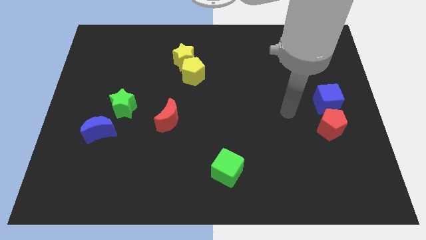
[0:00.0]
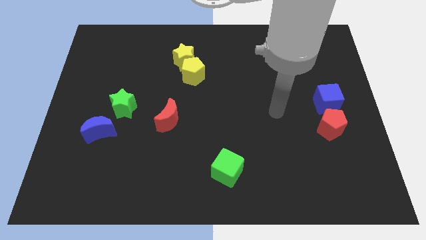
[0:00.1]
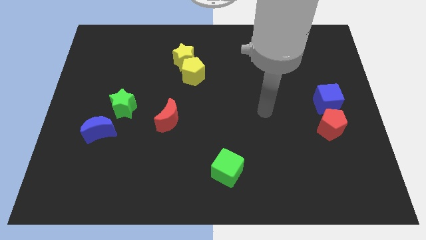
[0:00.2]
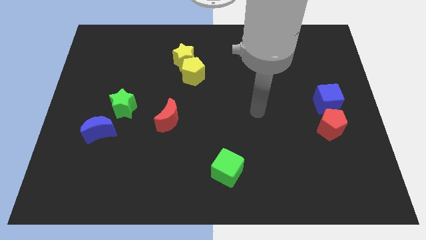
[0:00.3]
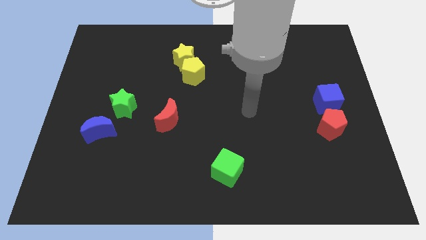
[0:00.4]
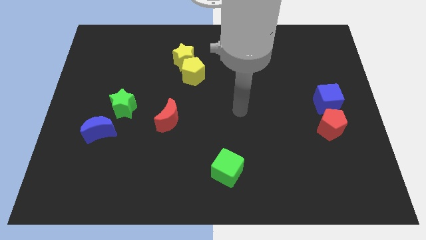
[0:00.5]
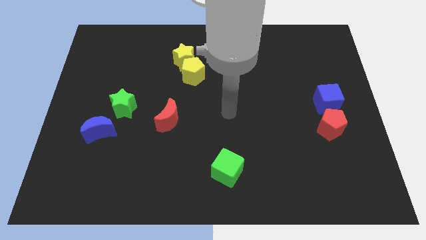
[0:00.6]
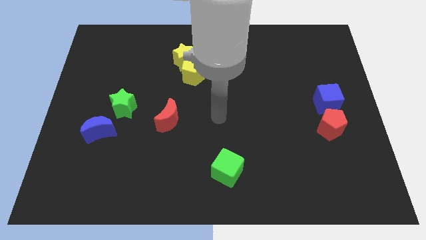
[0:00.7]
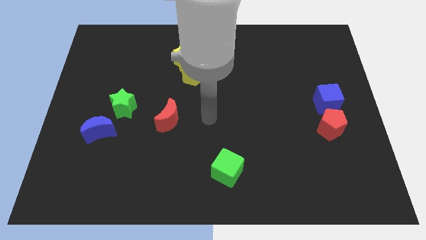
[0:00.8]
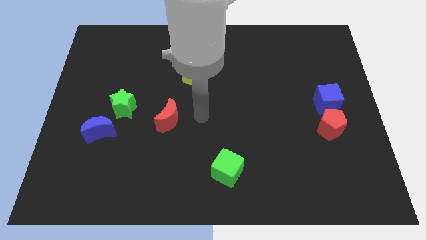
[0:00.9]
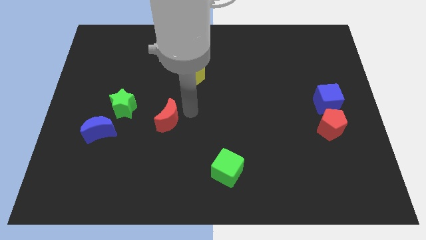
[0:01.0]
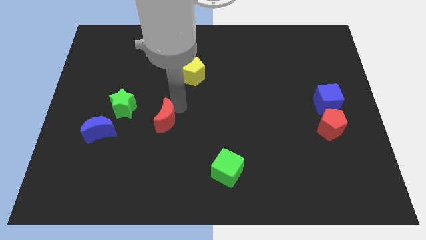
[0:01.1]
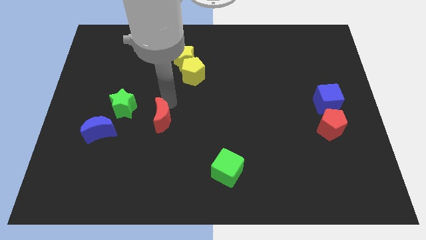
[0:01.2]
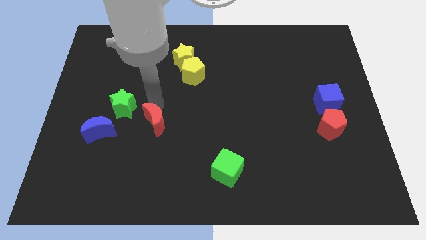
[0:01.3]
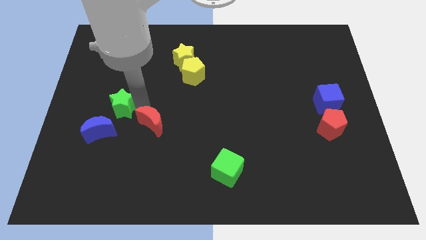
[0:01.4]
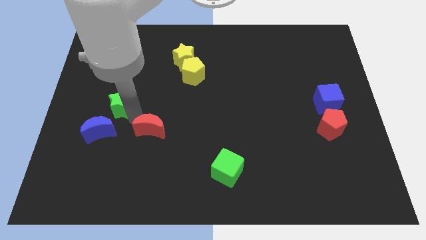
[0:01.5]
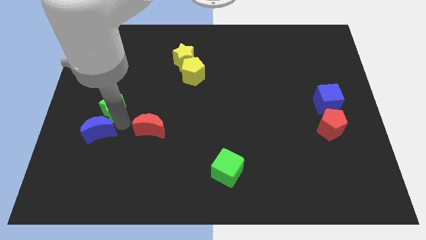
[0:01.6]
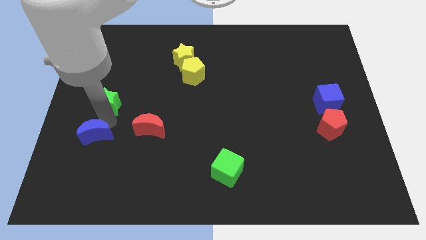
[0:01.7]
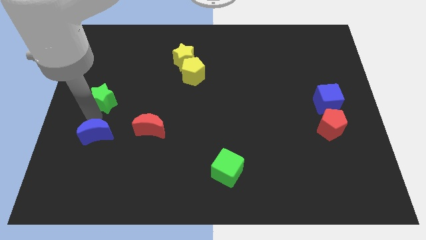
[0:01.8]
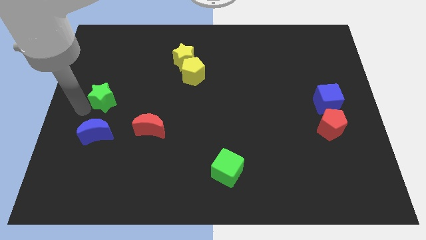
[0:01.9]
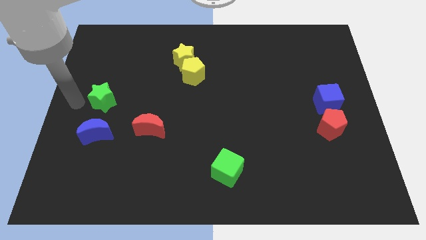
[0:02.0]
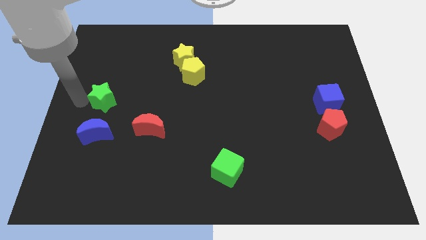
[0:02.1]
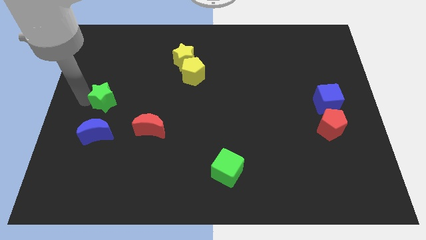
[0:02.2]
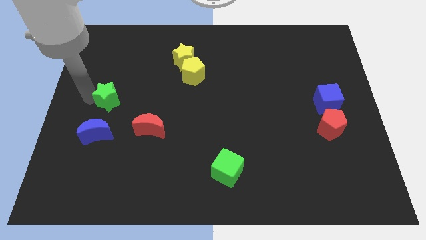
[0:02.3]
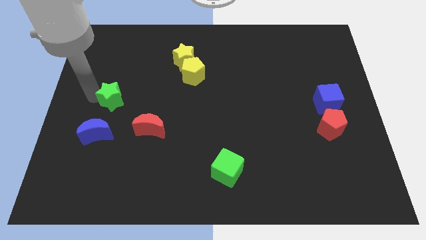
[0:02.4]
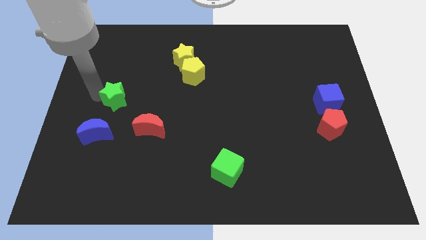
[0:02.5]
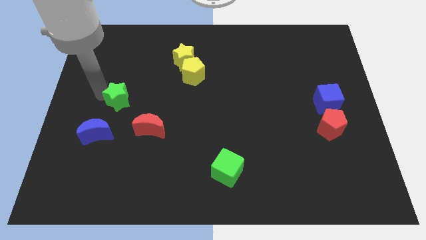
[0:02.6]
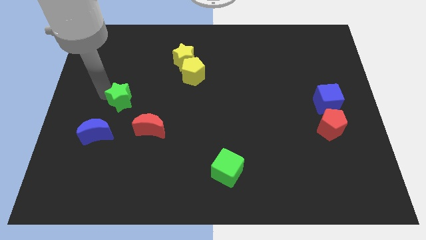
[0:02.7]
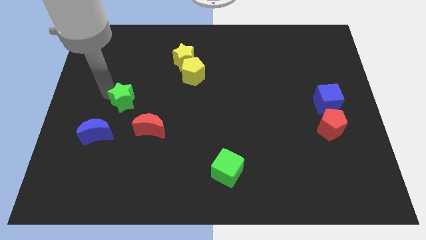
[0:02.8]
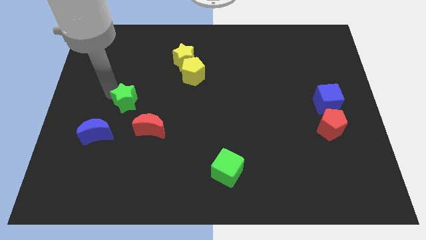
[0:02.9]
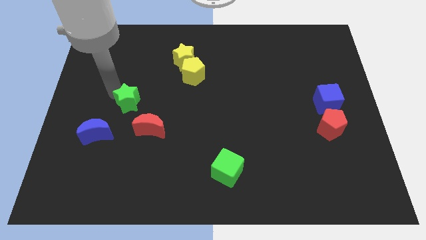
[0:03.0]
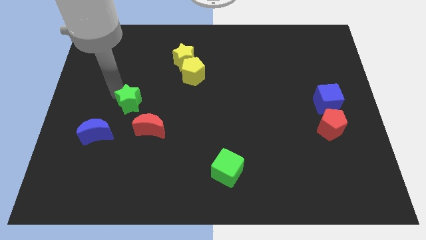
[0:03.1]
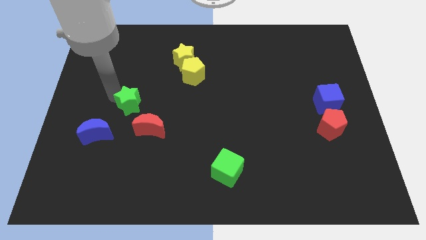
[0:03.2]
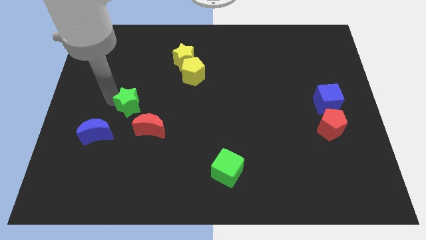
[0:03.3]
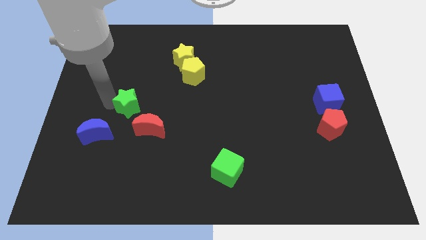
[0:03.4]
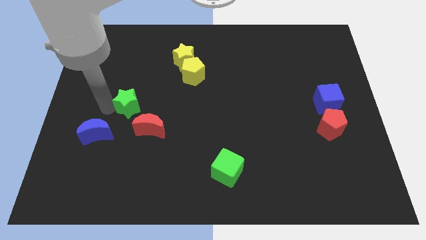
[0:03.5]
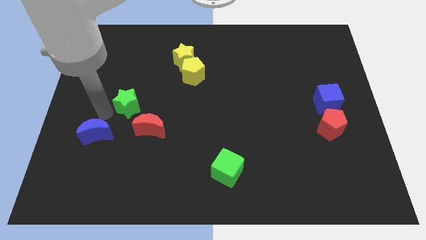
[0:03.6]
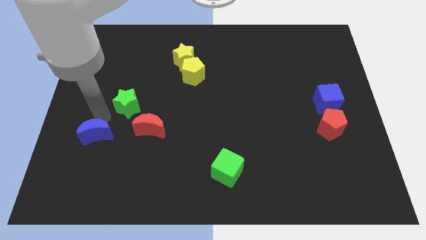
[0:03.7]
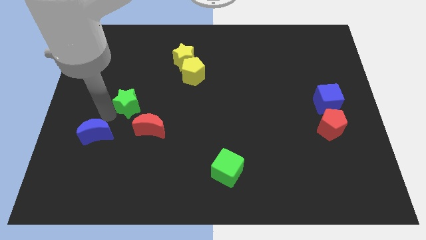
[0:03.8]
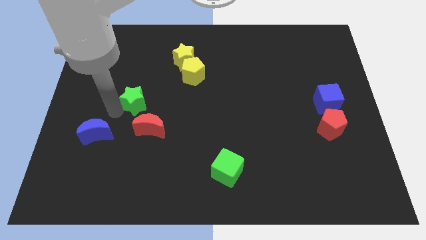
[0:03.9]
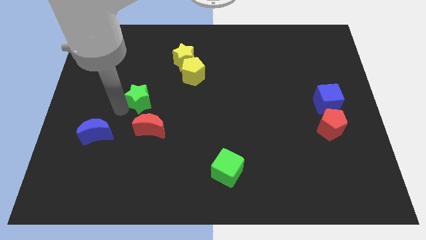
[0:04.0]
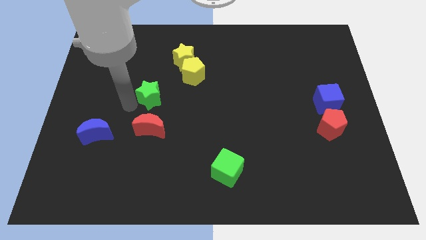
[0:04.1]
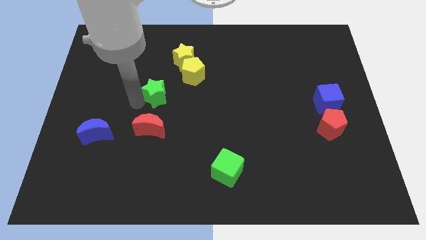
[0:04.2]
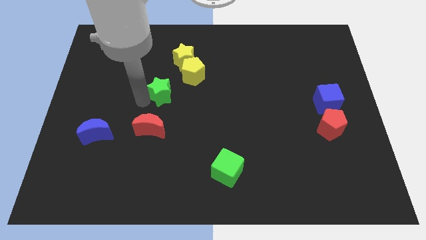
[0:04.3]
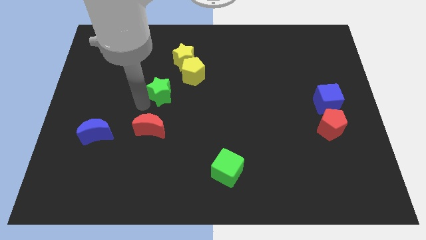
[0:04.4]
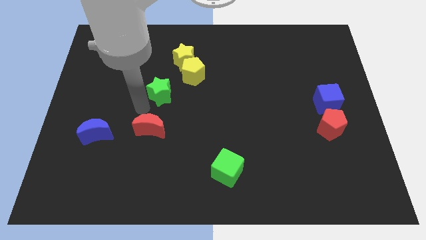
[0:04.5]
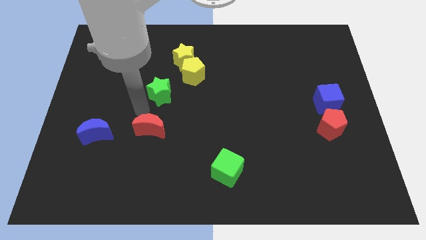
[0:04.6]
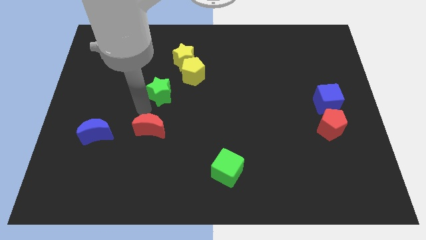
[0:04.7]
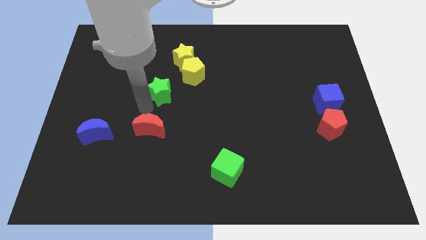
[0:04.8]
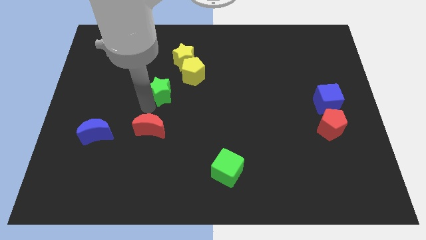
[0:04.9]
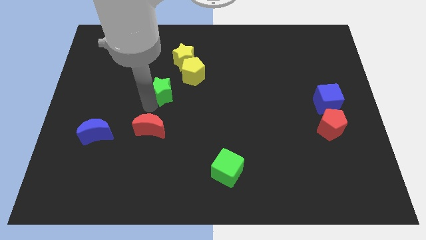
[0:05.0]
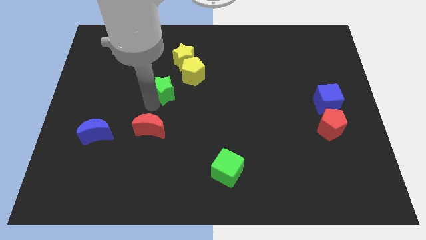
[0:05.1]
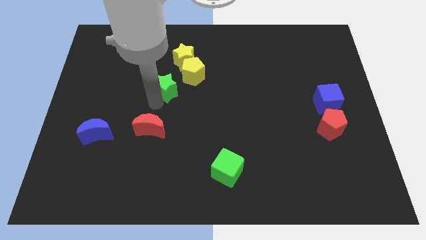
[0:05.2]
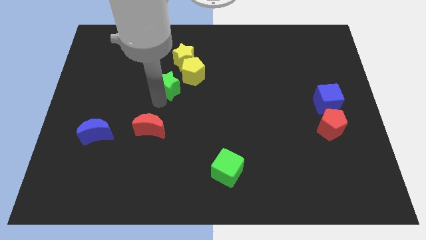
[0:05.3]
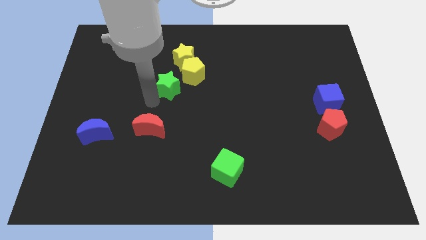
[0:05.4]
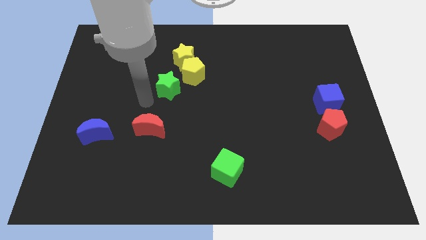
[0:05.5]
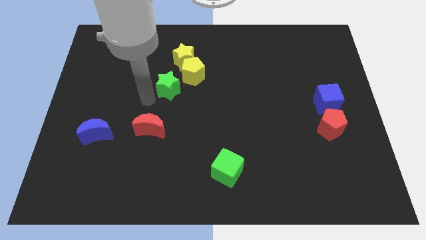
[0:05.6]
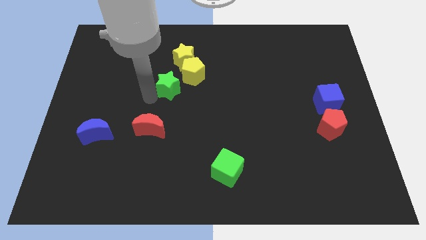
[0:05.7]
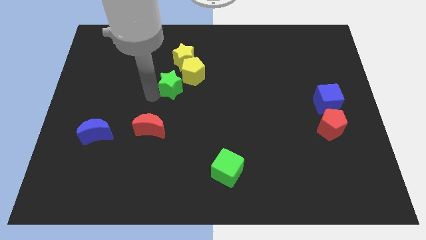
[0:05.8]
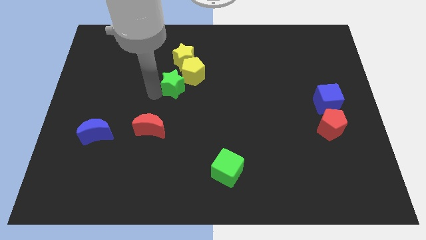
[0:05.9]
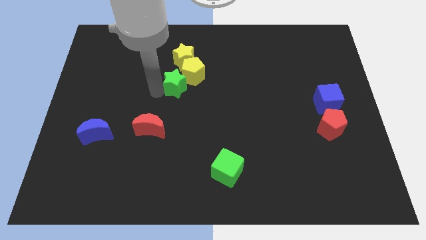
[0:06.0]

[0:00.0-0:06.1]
put the green star towards the yellow pentagon

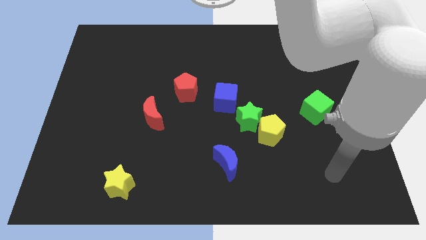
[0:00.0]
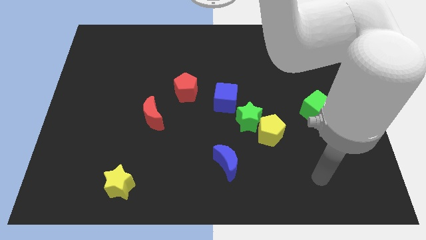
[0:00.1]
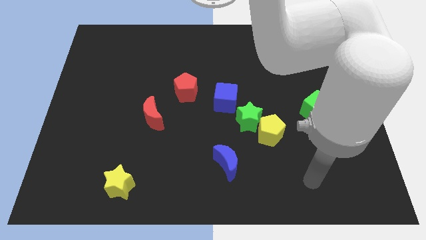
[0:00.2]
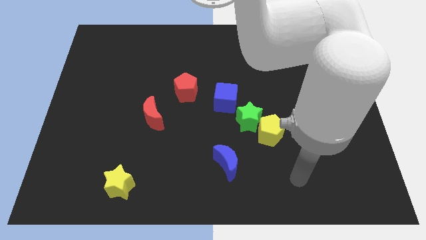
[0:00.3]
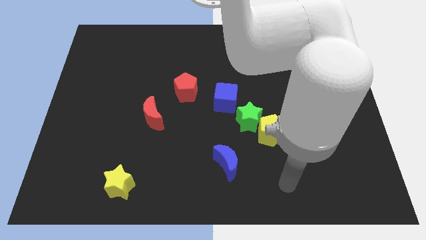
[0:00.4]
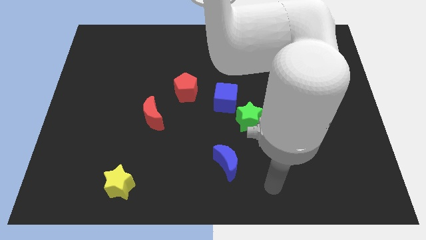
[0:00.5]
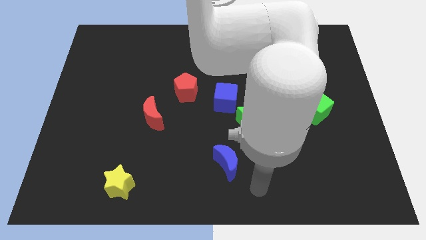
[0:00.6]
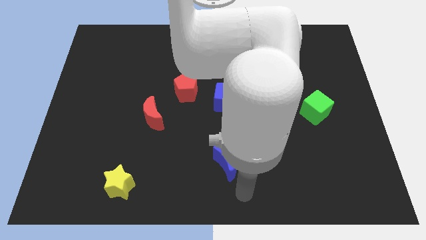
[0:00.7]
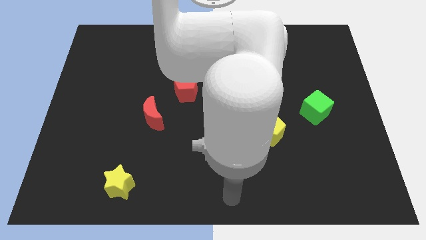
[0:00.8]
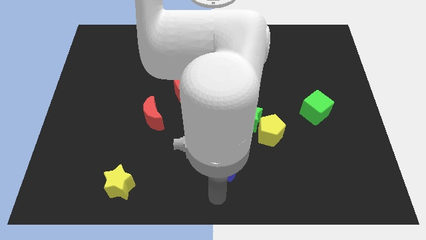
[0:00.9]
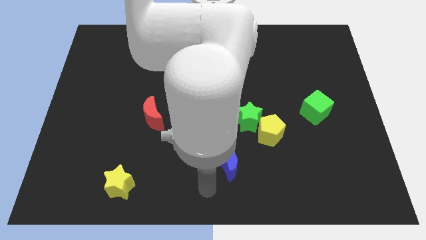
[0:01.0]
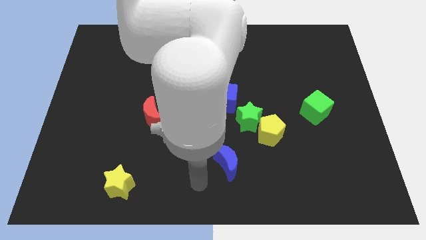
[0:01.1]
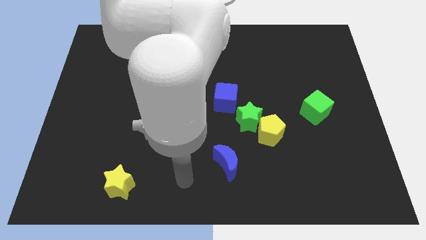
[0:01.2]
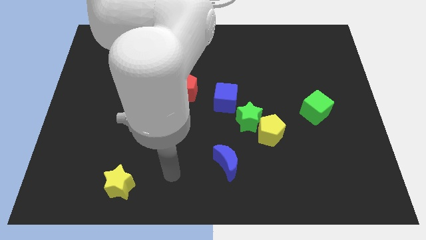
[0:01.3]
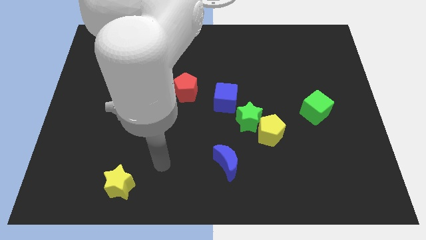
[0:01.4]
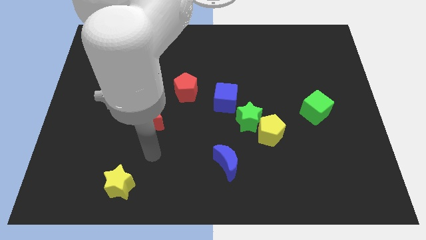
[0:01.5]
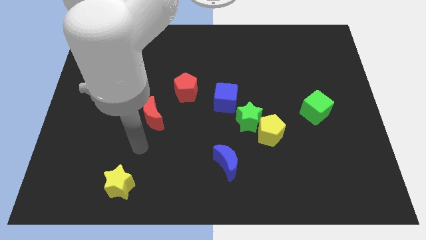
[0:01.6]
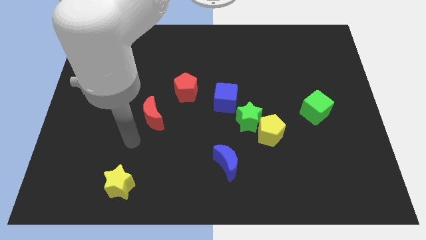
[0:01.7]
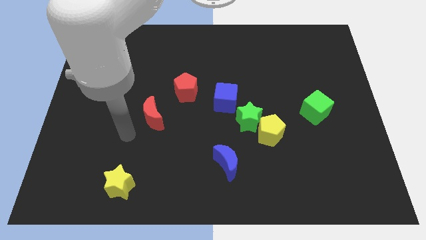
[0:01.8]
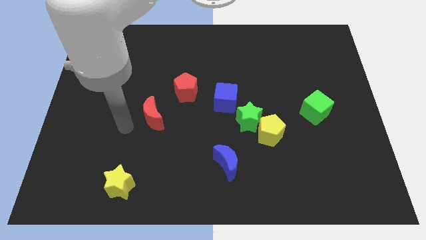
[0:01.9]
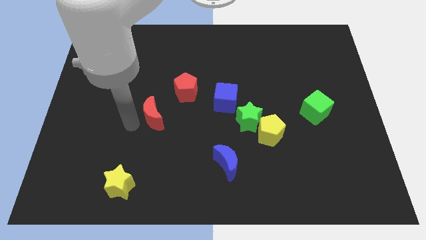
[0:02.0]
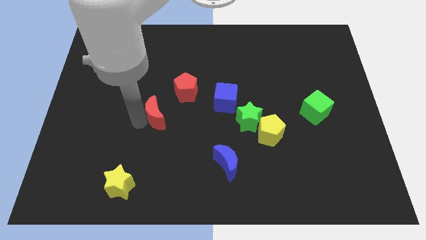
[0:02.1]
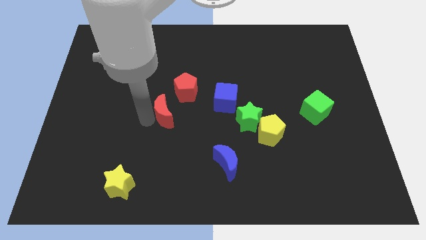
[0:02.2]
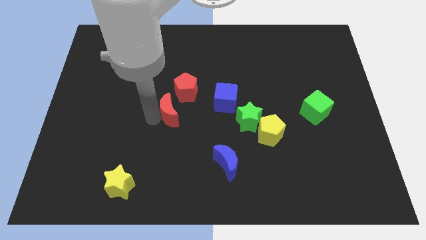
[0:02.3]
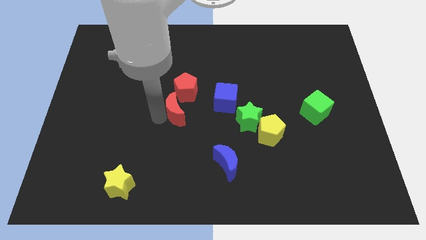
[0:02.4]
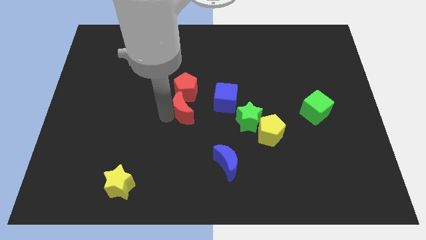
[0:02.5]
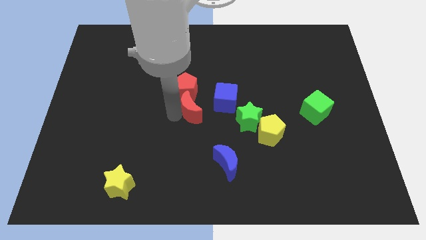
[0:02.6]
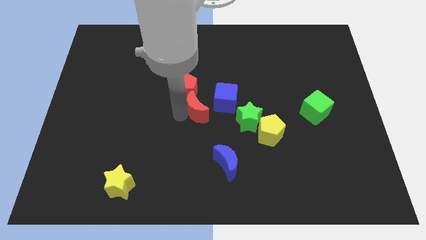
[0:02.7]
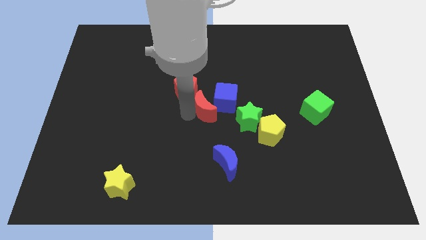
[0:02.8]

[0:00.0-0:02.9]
slide the red moon close to the blue cube
